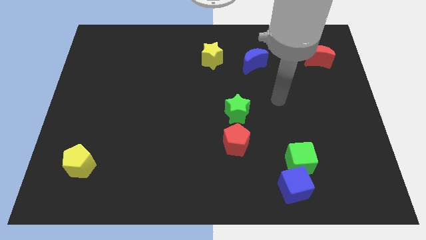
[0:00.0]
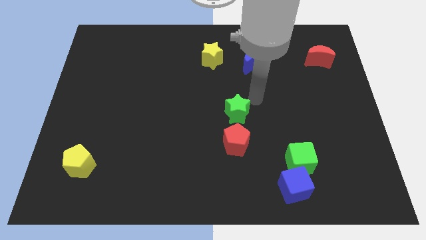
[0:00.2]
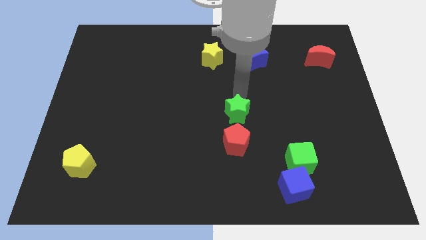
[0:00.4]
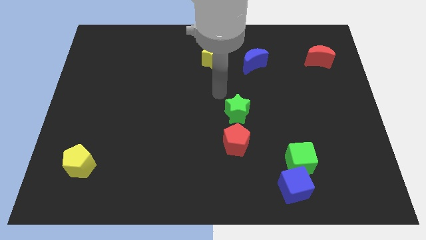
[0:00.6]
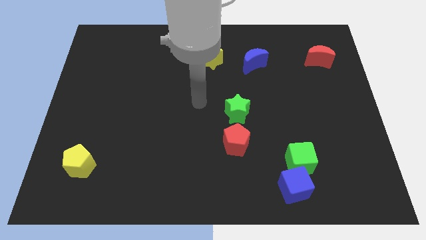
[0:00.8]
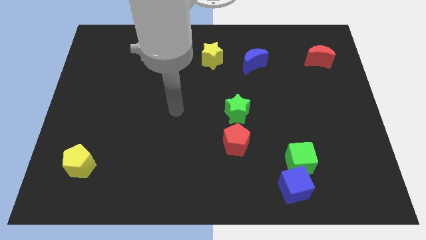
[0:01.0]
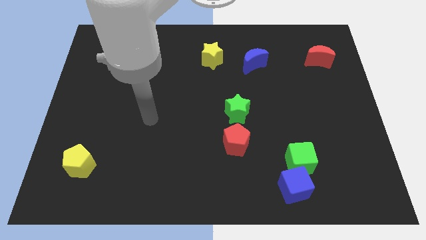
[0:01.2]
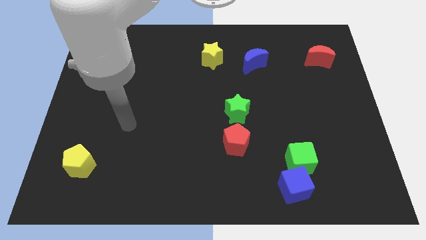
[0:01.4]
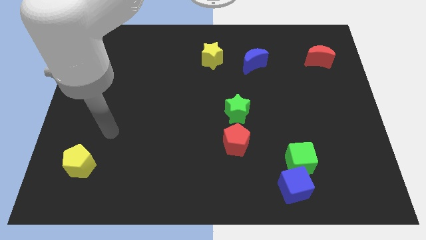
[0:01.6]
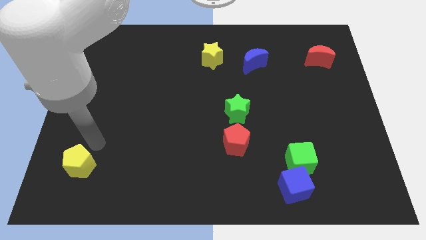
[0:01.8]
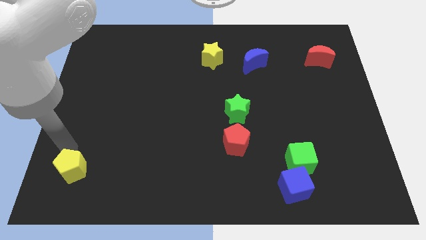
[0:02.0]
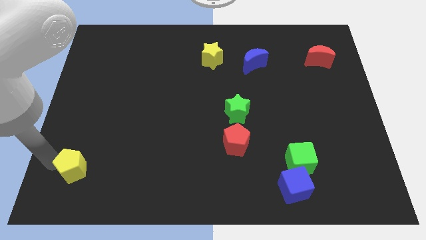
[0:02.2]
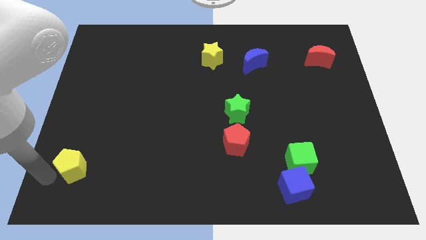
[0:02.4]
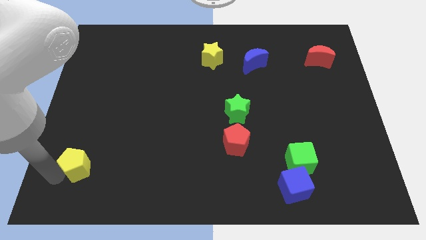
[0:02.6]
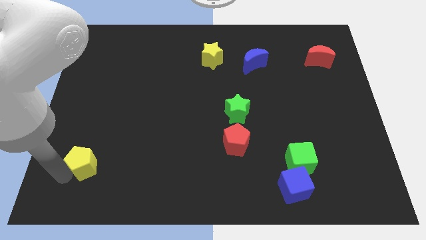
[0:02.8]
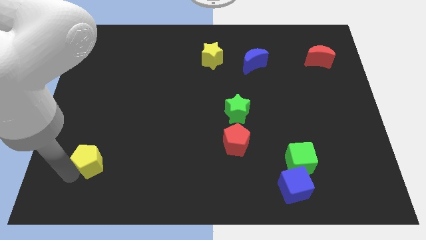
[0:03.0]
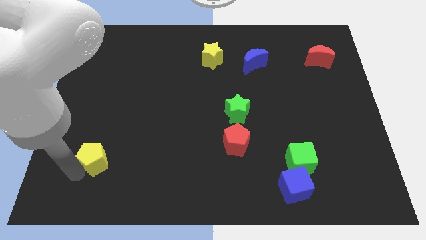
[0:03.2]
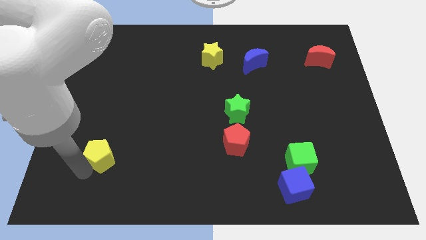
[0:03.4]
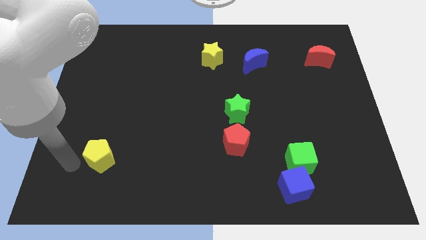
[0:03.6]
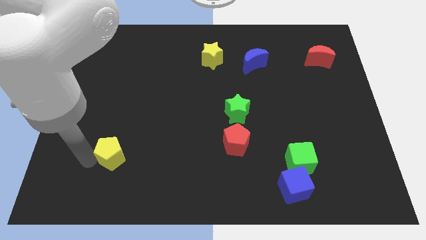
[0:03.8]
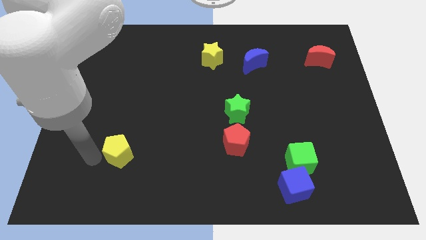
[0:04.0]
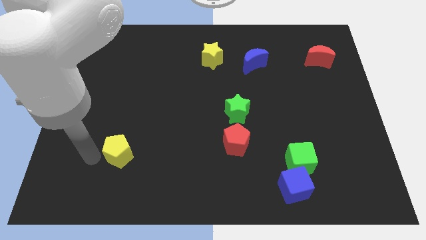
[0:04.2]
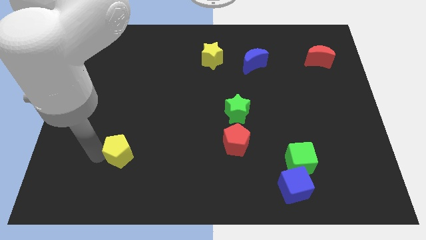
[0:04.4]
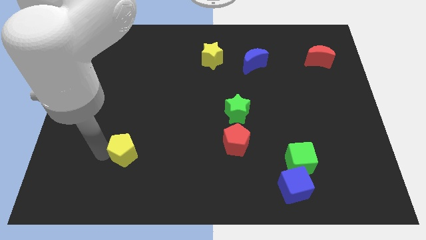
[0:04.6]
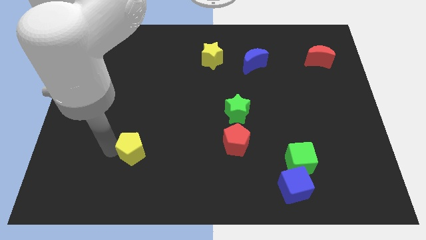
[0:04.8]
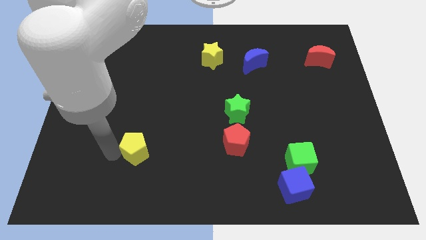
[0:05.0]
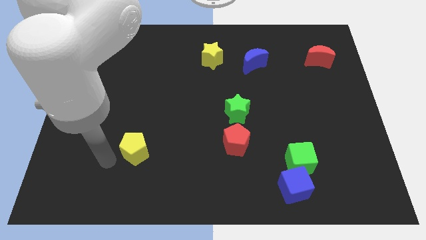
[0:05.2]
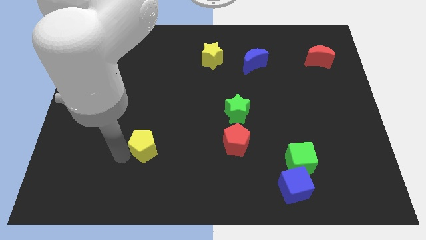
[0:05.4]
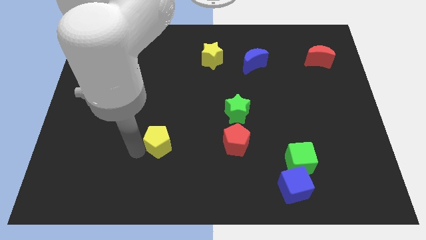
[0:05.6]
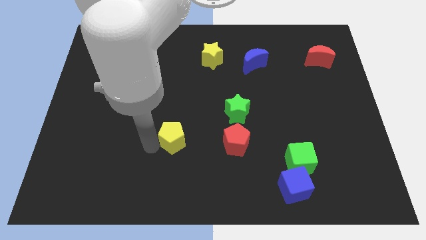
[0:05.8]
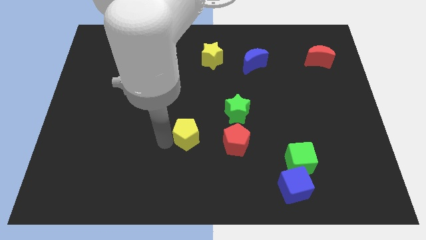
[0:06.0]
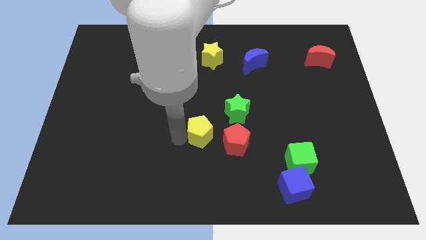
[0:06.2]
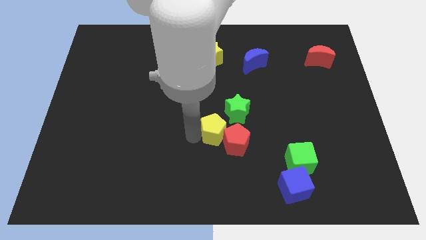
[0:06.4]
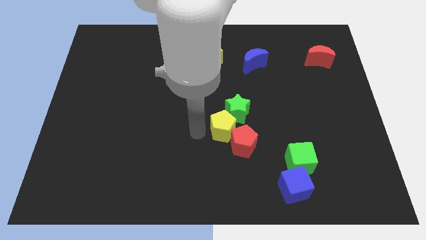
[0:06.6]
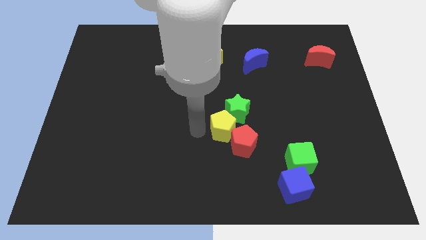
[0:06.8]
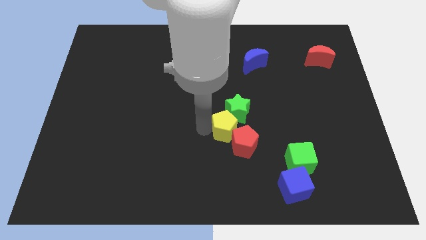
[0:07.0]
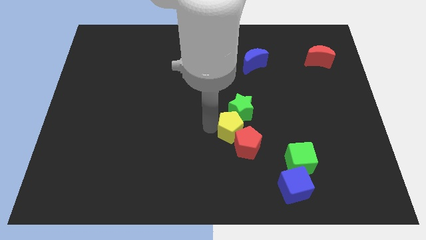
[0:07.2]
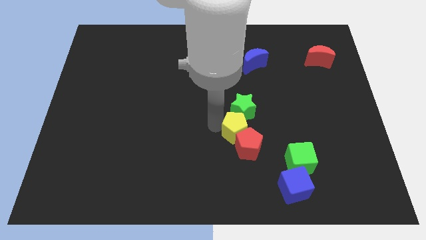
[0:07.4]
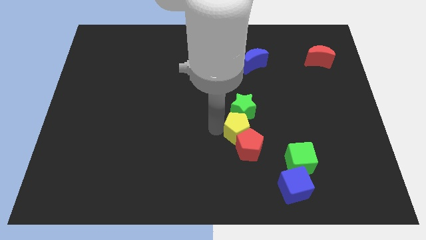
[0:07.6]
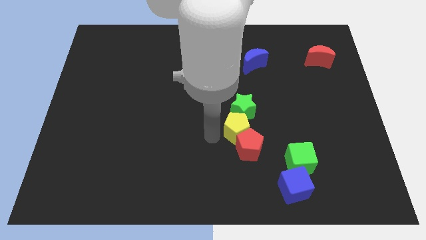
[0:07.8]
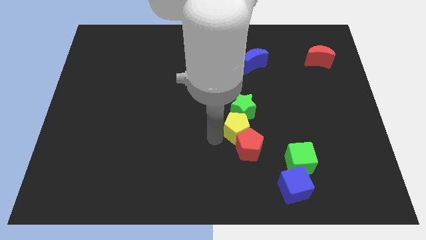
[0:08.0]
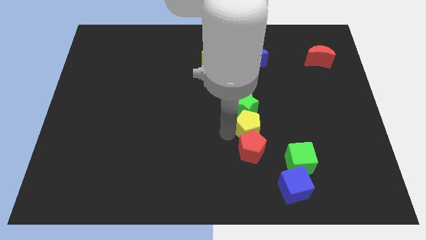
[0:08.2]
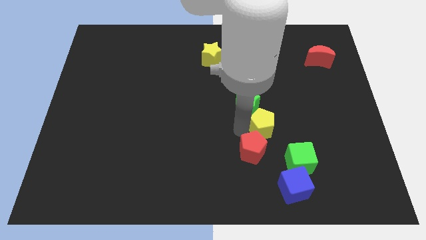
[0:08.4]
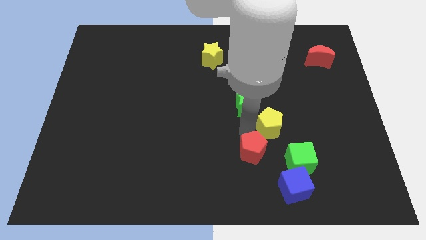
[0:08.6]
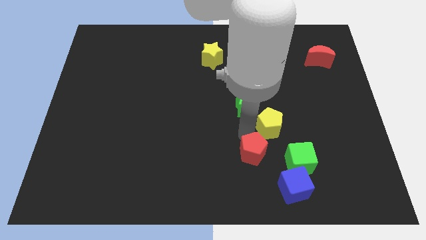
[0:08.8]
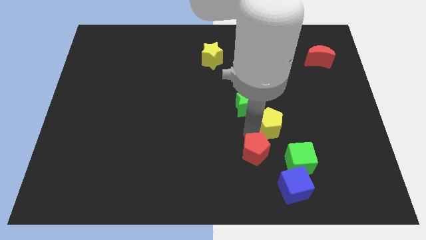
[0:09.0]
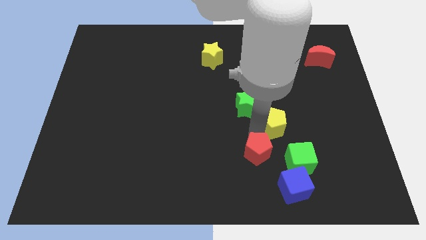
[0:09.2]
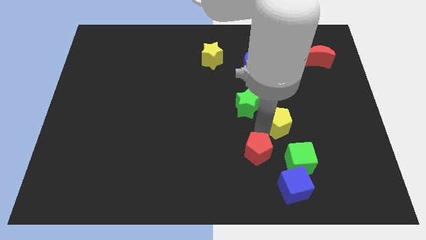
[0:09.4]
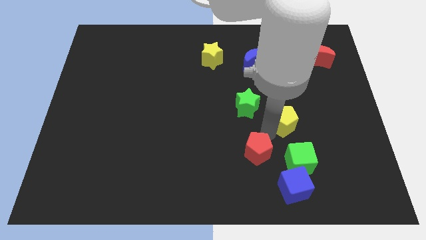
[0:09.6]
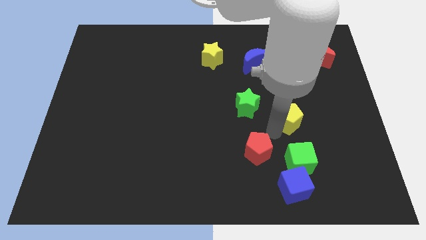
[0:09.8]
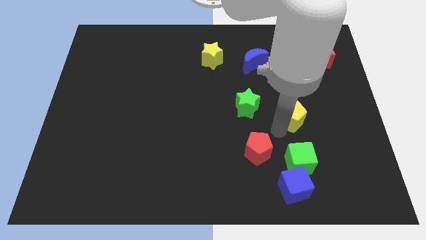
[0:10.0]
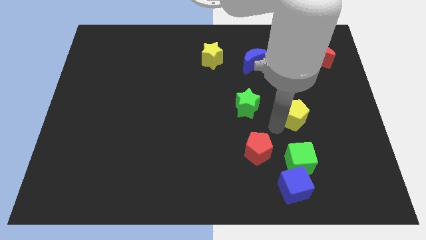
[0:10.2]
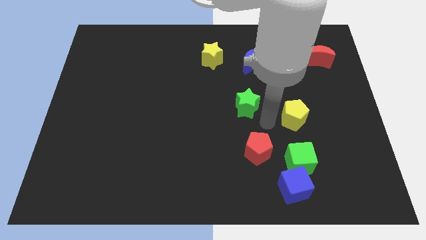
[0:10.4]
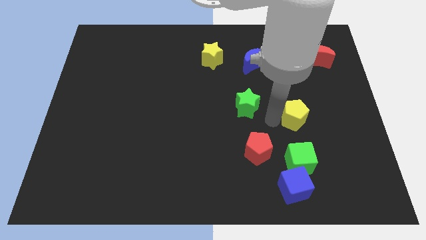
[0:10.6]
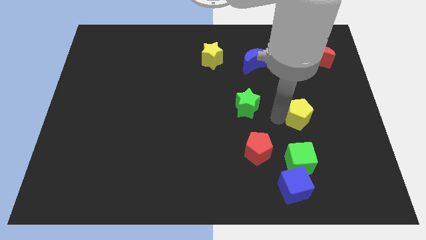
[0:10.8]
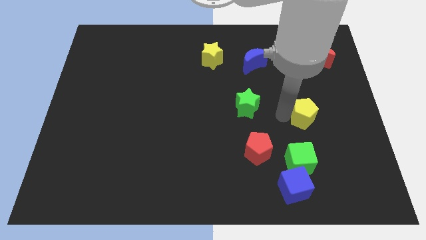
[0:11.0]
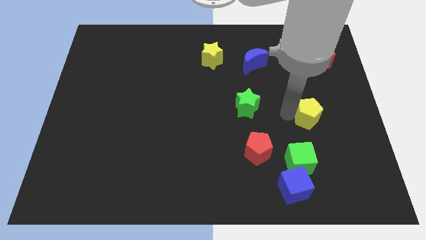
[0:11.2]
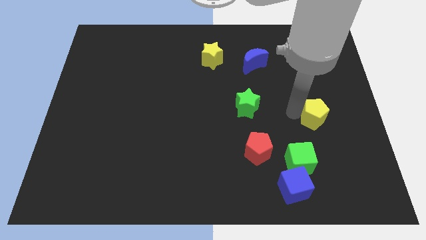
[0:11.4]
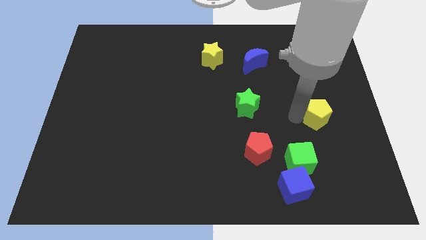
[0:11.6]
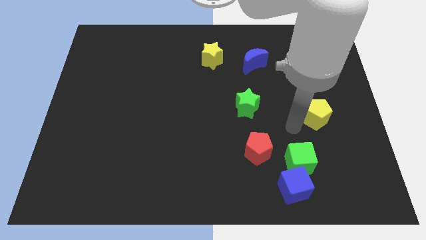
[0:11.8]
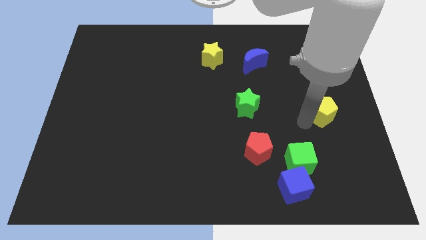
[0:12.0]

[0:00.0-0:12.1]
put the yellow pentagon to the right side
